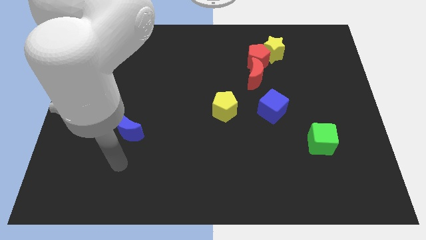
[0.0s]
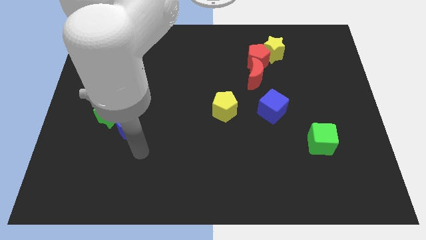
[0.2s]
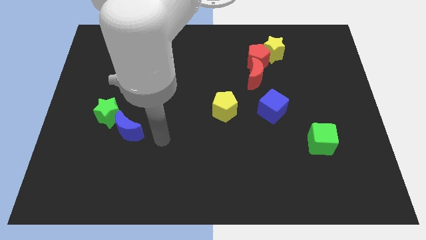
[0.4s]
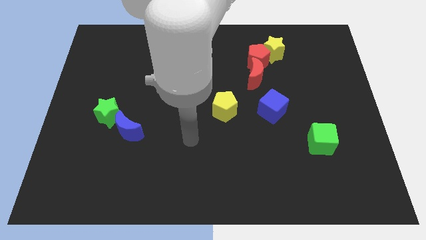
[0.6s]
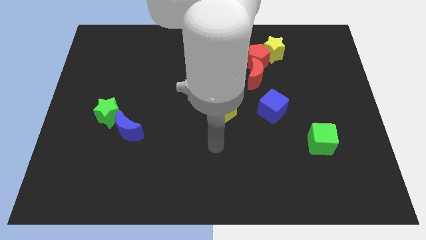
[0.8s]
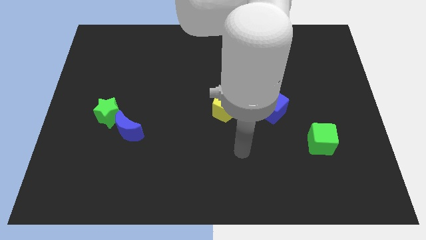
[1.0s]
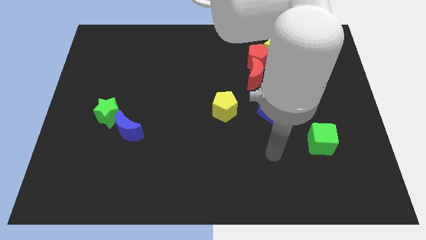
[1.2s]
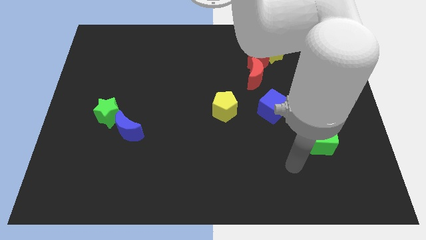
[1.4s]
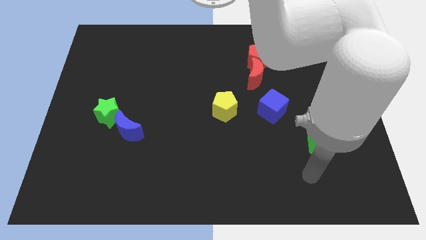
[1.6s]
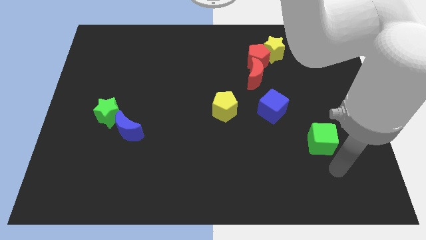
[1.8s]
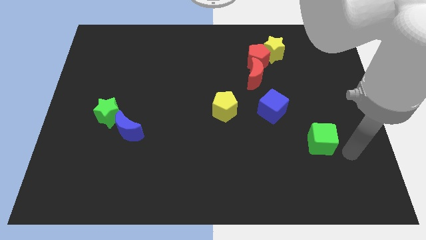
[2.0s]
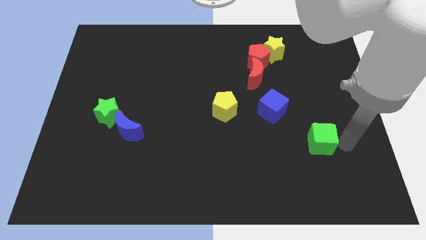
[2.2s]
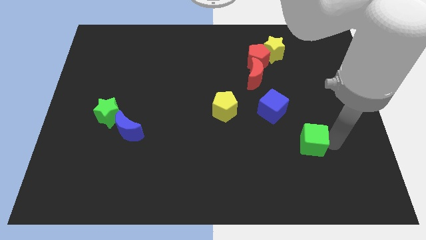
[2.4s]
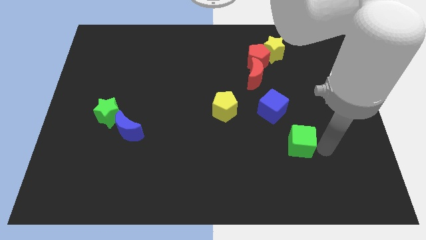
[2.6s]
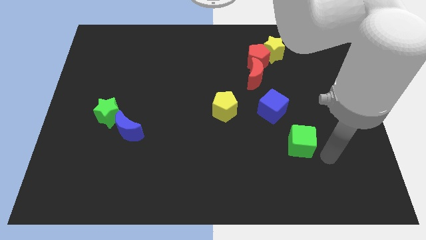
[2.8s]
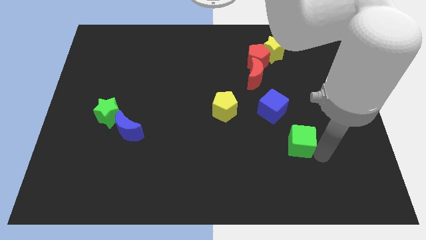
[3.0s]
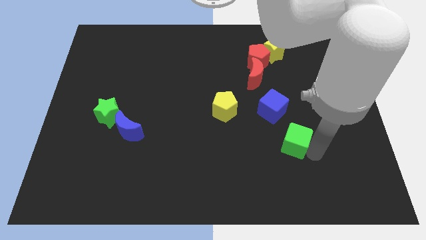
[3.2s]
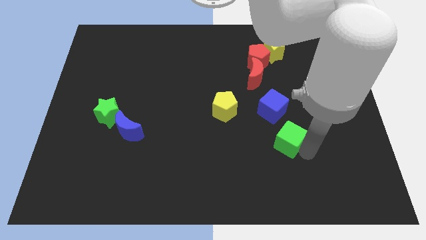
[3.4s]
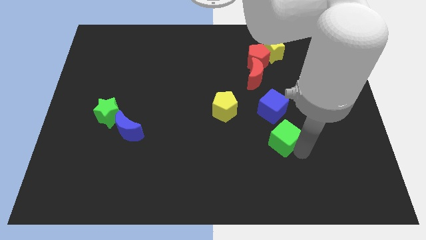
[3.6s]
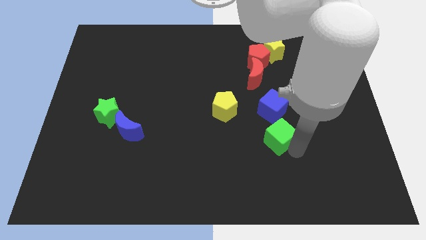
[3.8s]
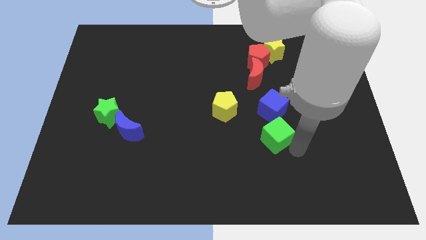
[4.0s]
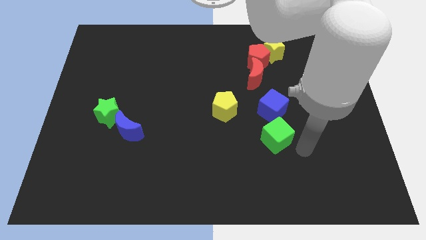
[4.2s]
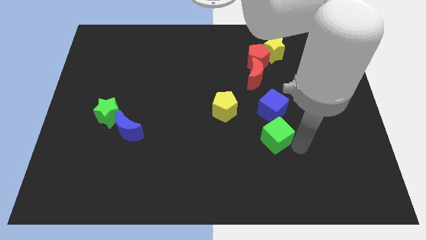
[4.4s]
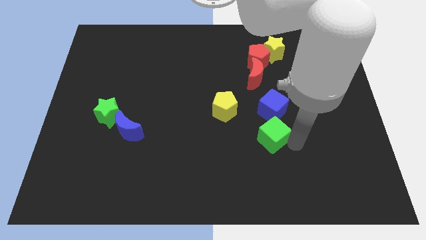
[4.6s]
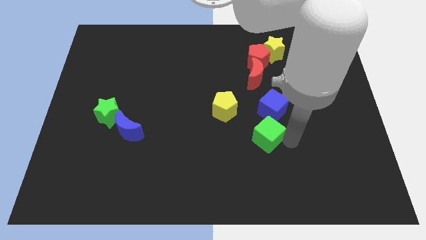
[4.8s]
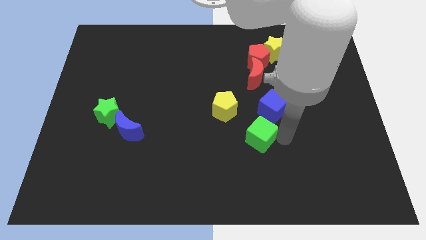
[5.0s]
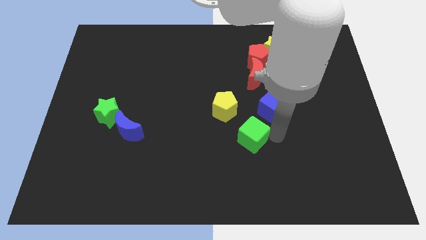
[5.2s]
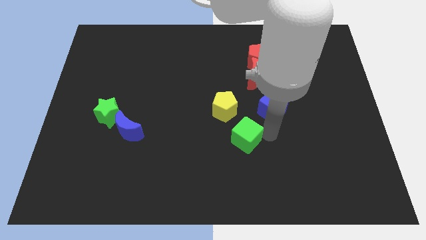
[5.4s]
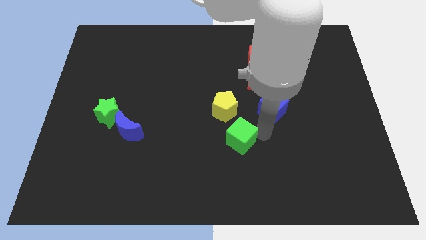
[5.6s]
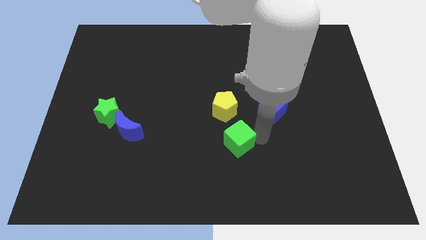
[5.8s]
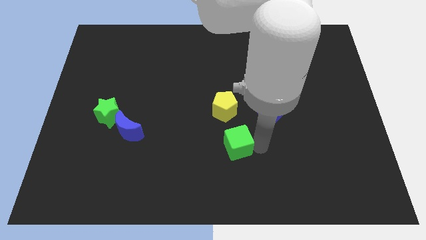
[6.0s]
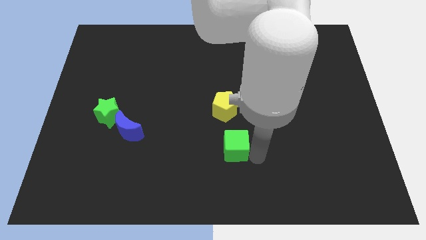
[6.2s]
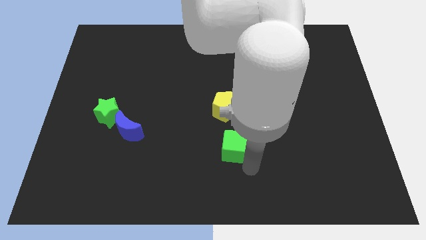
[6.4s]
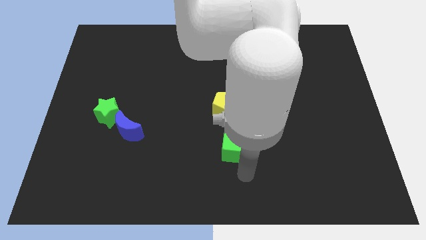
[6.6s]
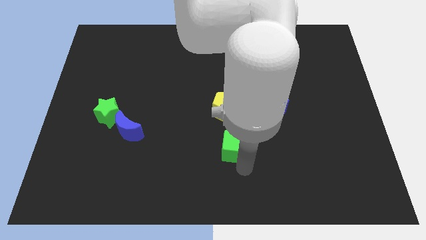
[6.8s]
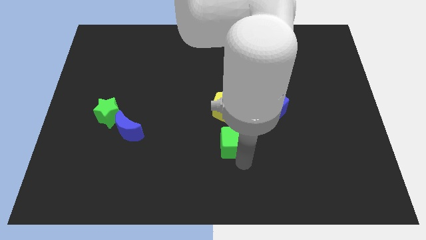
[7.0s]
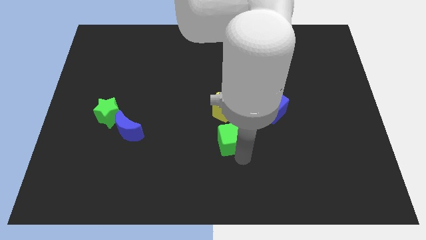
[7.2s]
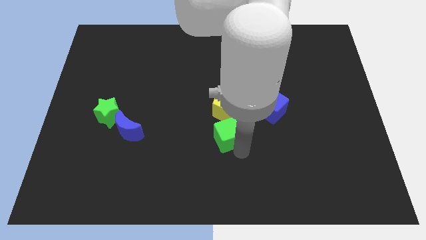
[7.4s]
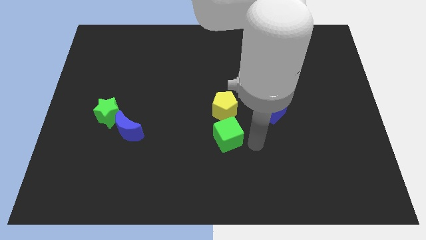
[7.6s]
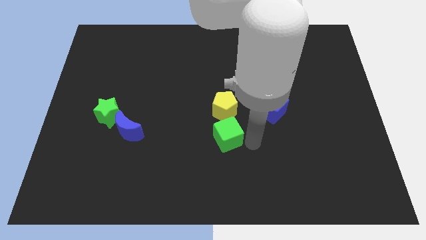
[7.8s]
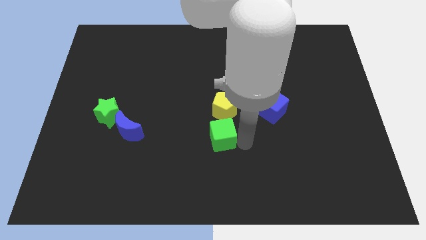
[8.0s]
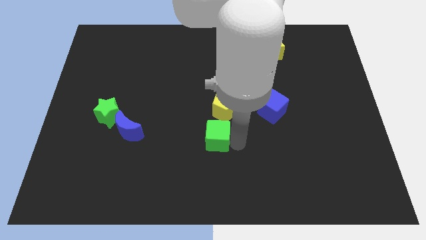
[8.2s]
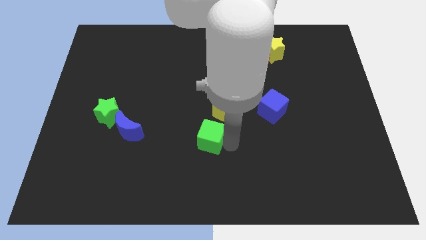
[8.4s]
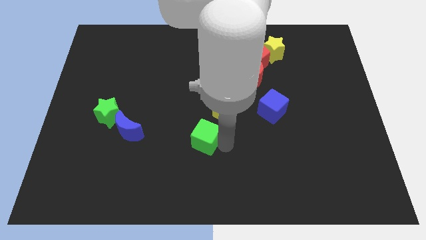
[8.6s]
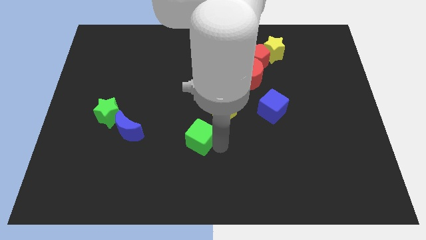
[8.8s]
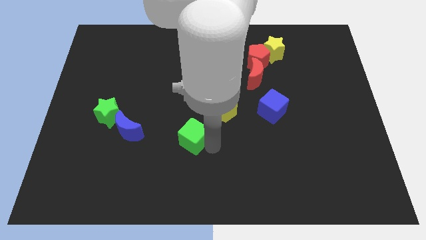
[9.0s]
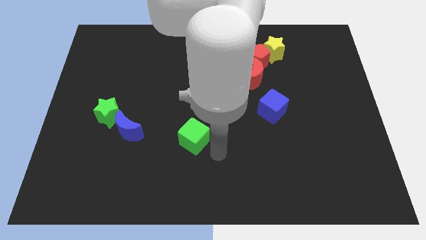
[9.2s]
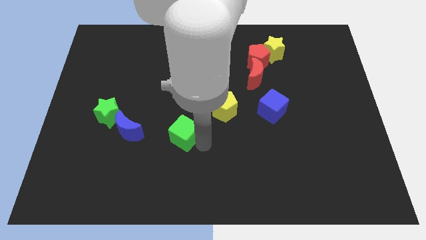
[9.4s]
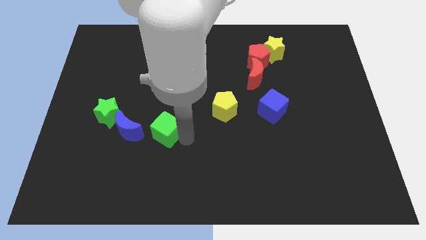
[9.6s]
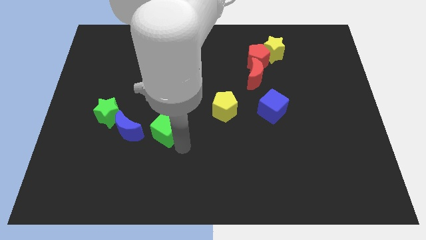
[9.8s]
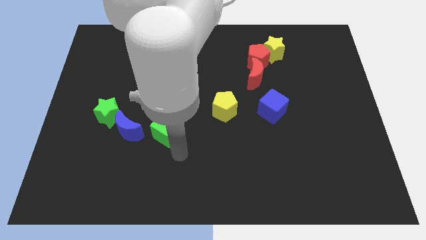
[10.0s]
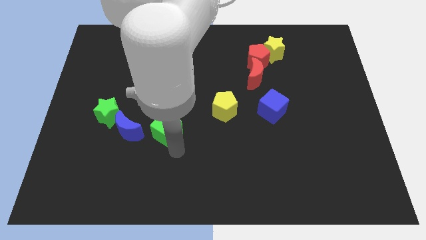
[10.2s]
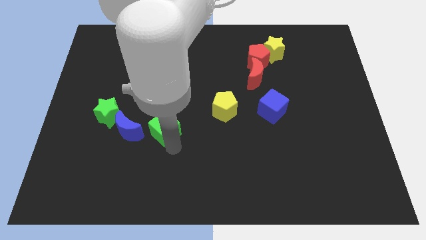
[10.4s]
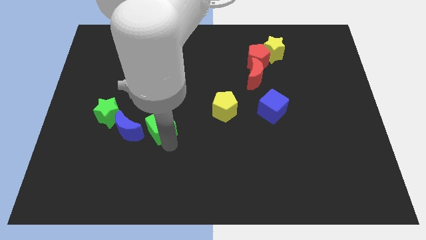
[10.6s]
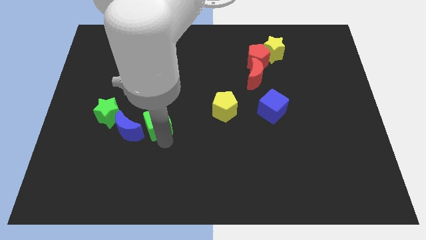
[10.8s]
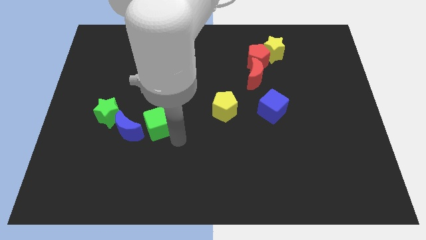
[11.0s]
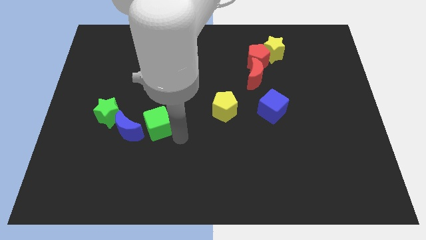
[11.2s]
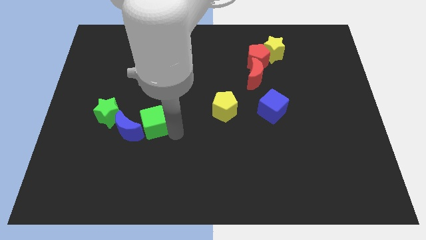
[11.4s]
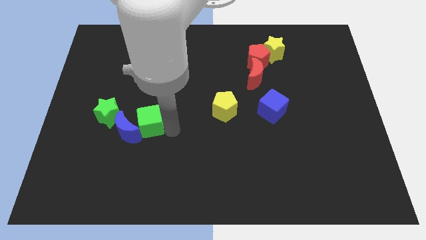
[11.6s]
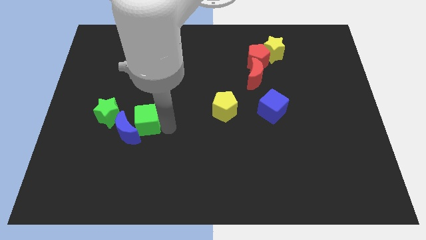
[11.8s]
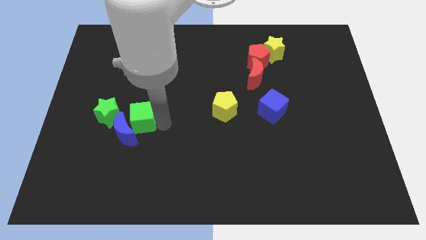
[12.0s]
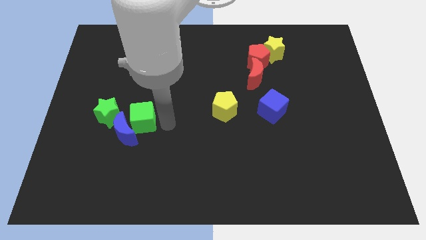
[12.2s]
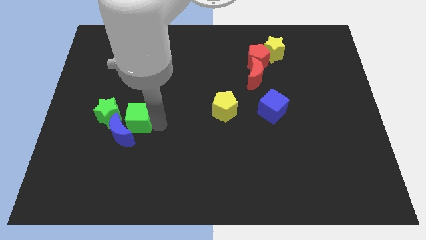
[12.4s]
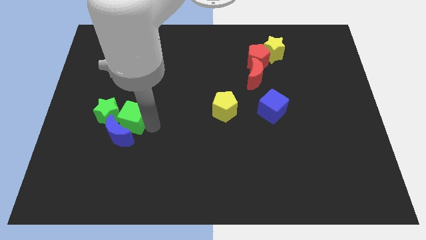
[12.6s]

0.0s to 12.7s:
push the green cube next to the green star

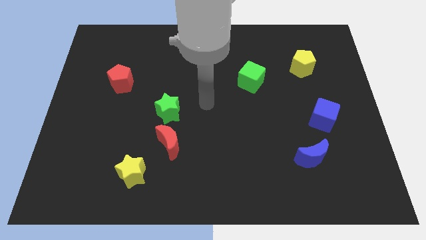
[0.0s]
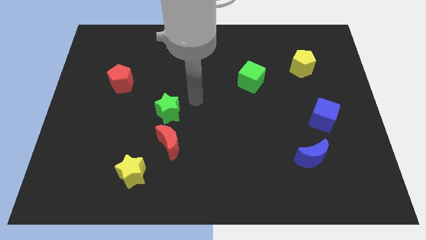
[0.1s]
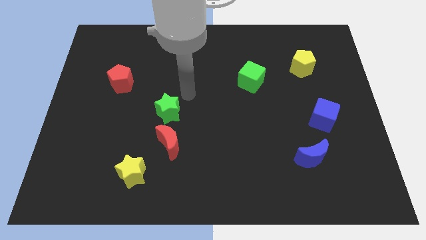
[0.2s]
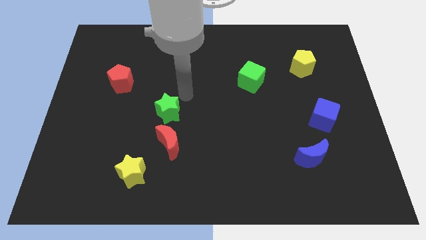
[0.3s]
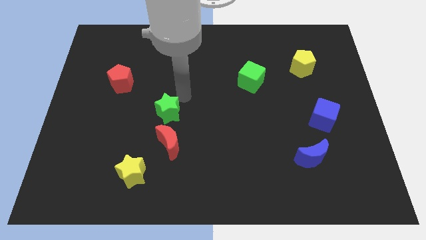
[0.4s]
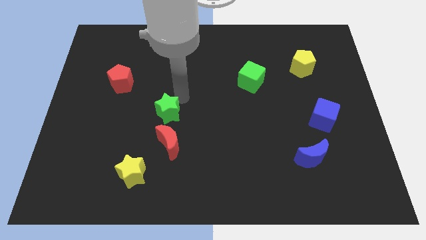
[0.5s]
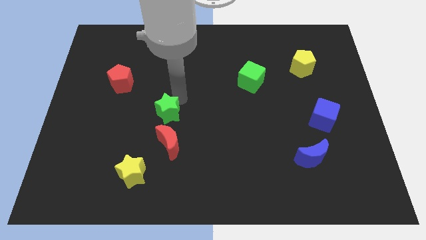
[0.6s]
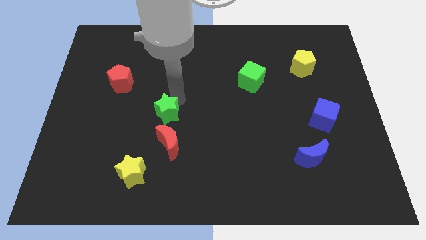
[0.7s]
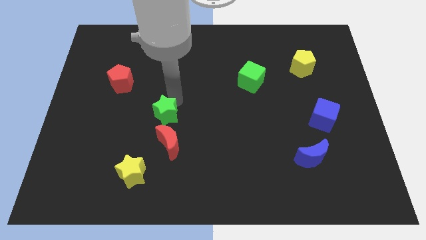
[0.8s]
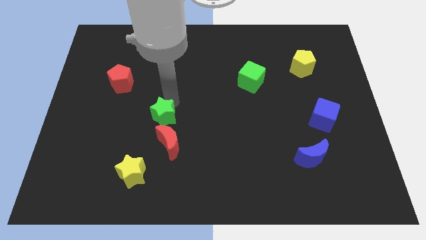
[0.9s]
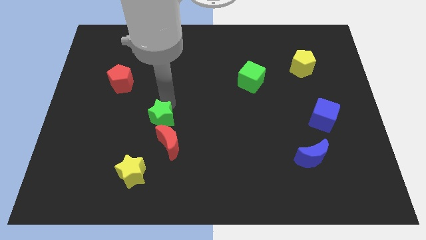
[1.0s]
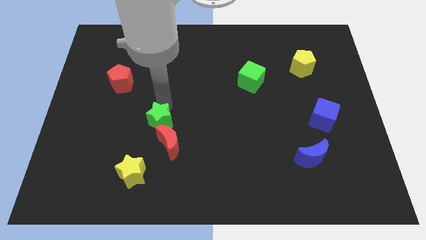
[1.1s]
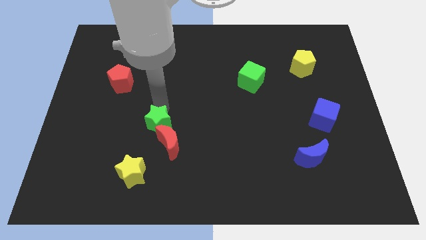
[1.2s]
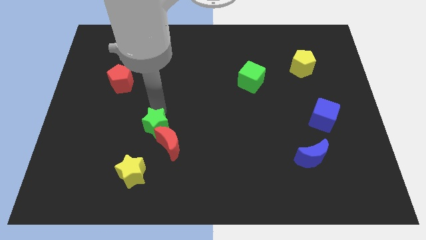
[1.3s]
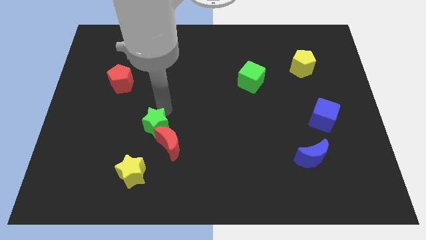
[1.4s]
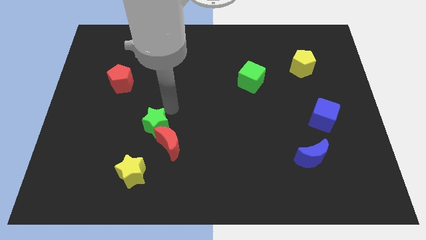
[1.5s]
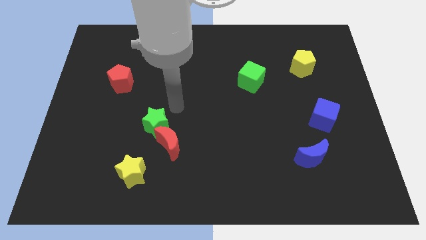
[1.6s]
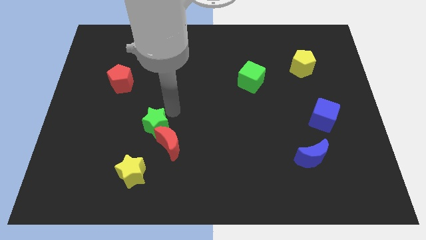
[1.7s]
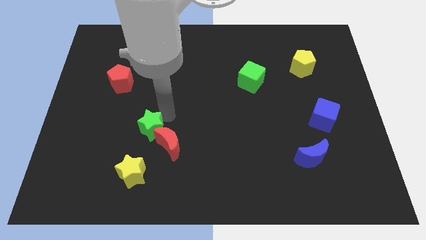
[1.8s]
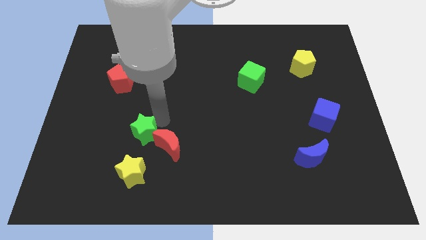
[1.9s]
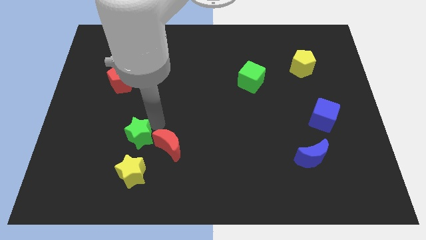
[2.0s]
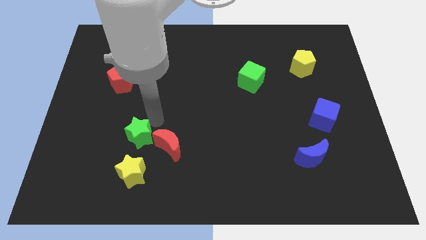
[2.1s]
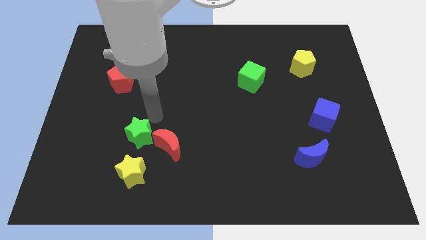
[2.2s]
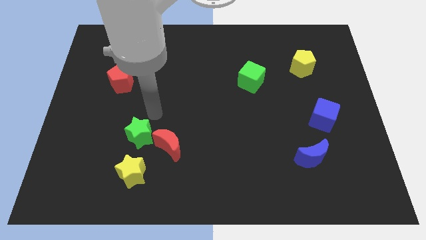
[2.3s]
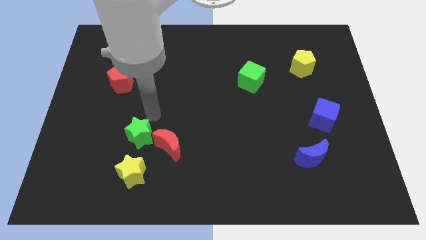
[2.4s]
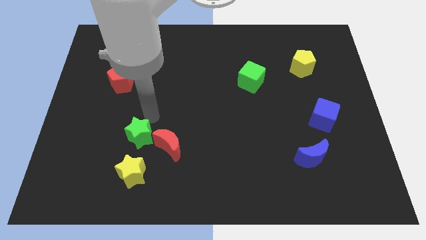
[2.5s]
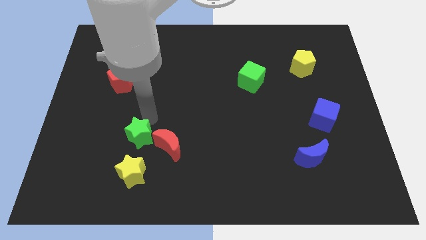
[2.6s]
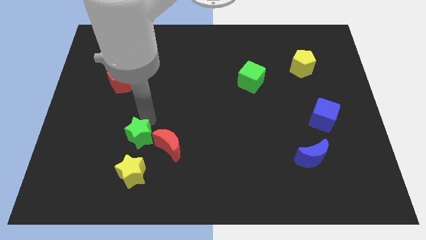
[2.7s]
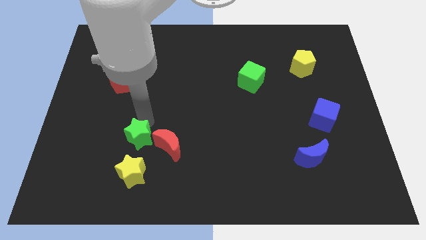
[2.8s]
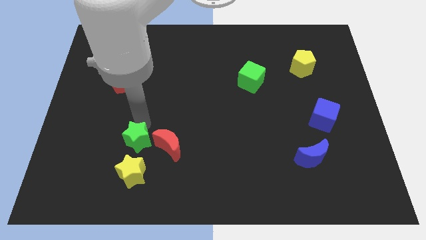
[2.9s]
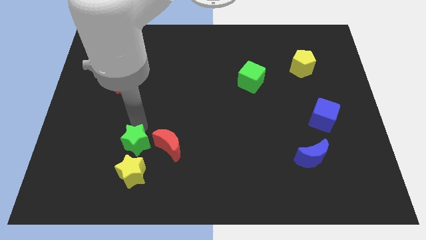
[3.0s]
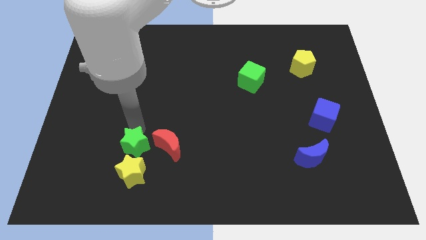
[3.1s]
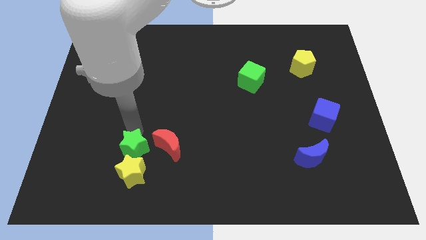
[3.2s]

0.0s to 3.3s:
push the green star close to the yellow star
